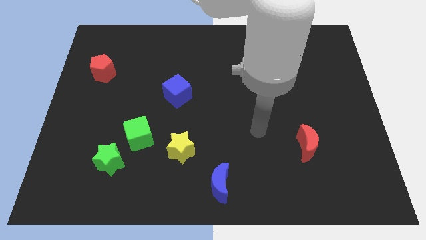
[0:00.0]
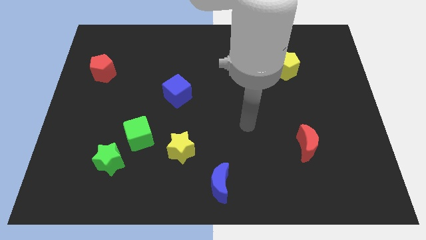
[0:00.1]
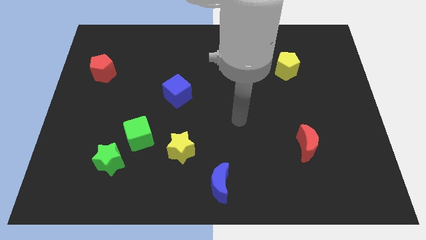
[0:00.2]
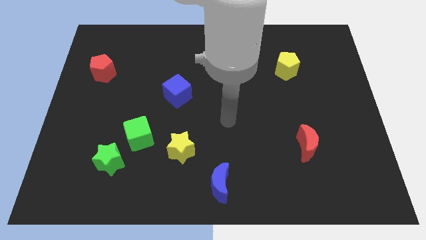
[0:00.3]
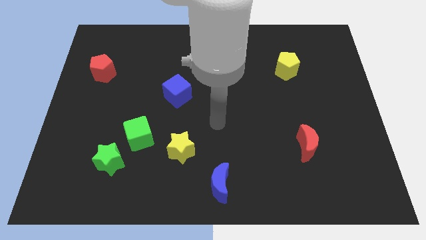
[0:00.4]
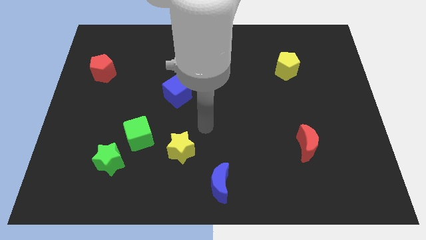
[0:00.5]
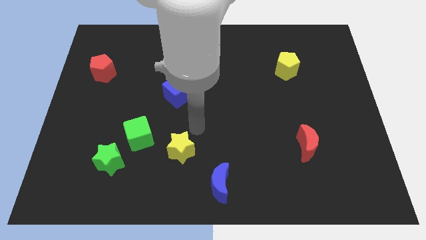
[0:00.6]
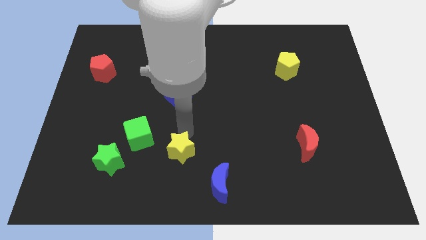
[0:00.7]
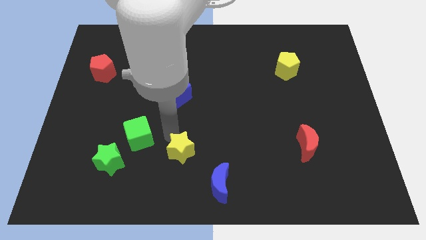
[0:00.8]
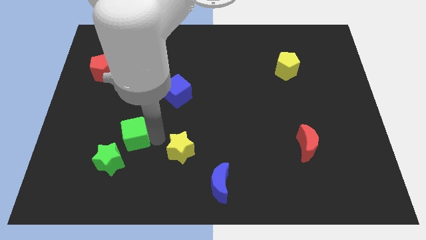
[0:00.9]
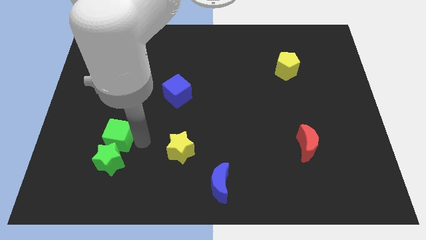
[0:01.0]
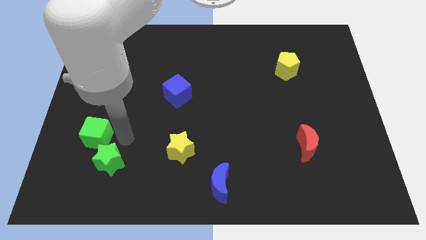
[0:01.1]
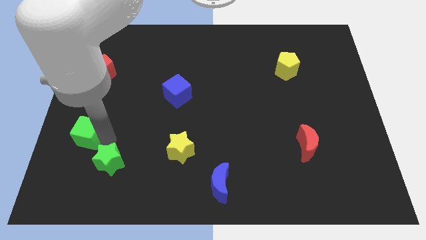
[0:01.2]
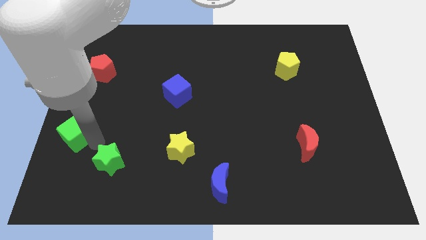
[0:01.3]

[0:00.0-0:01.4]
move the green star away from the green cube

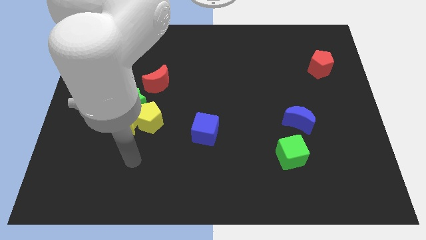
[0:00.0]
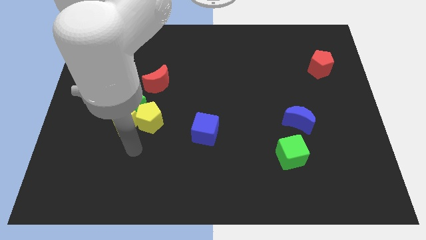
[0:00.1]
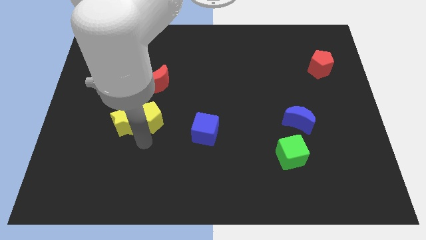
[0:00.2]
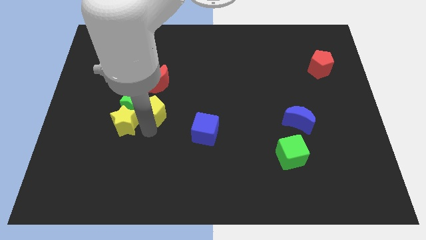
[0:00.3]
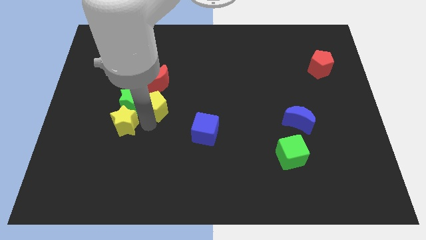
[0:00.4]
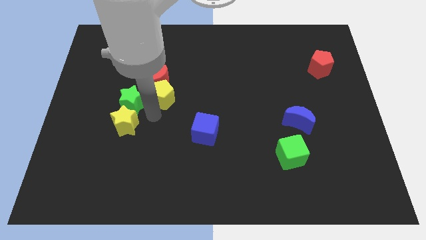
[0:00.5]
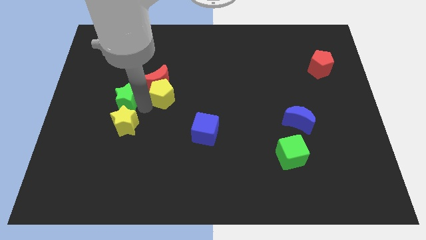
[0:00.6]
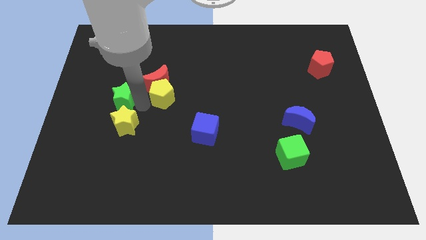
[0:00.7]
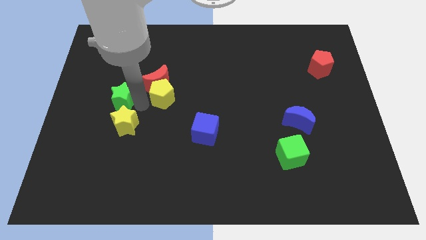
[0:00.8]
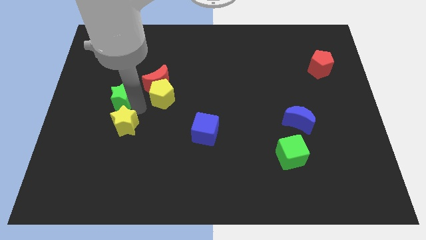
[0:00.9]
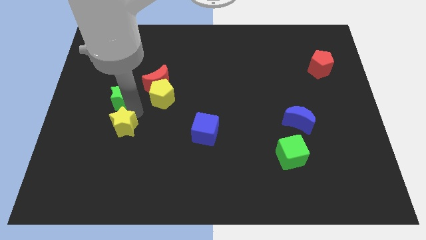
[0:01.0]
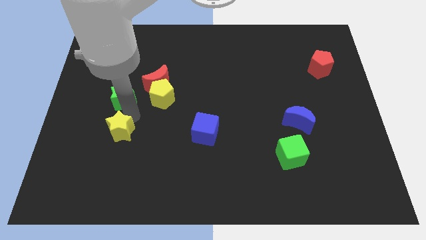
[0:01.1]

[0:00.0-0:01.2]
pull the yellow star apart from the green star and yellow pentagon

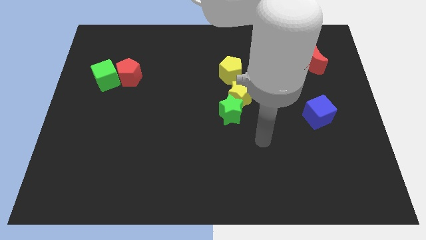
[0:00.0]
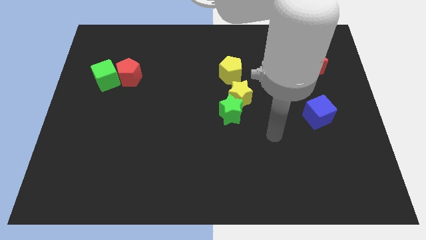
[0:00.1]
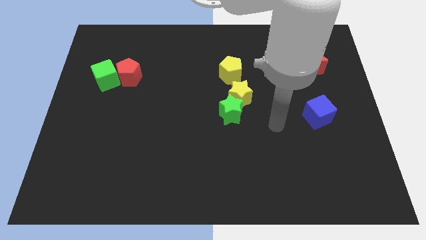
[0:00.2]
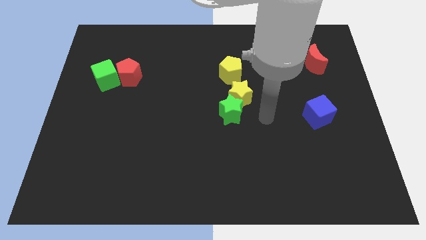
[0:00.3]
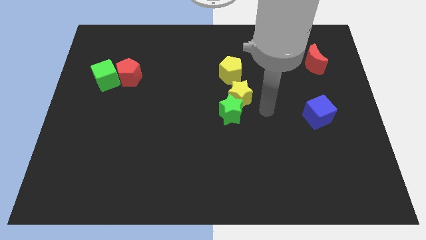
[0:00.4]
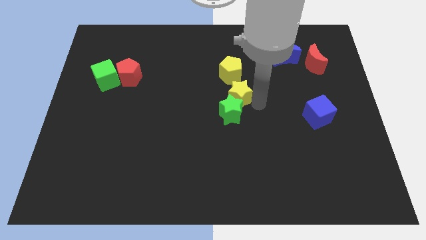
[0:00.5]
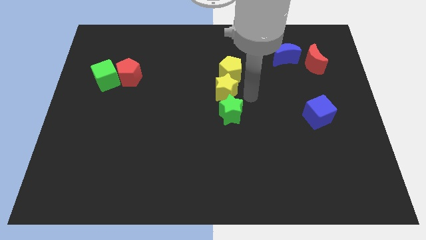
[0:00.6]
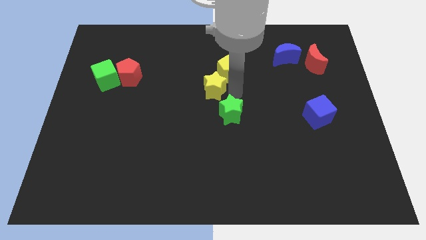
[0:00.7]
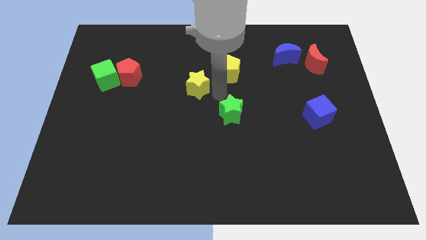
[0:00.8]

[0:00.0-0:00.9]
separate the green star from the yellow star

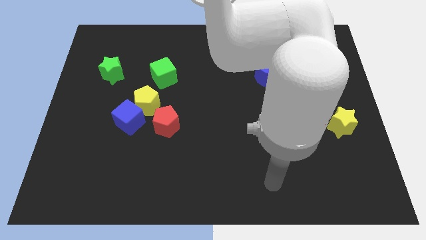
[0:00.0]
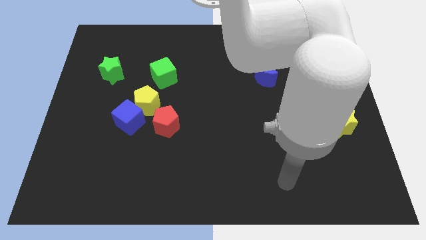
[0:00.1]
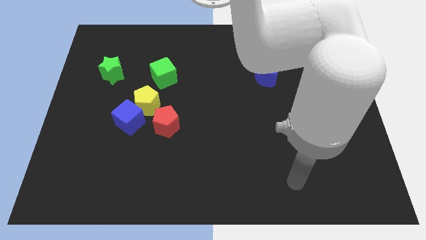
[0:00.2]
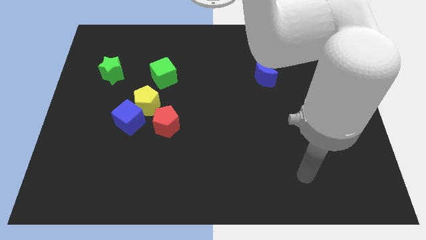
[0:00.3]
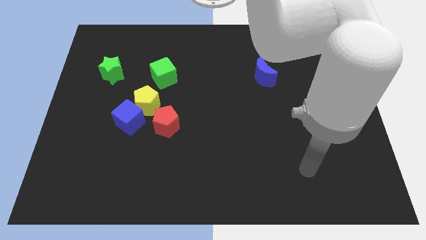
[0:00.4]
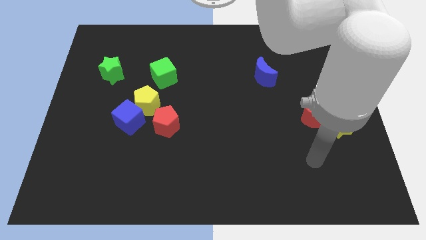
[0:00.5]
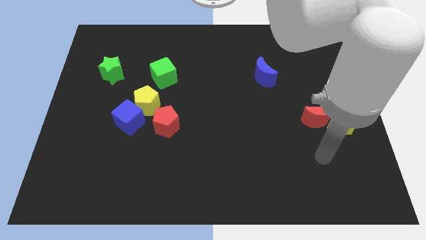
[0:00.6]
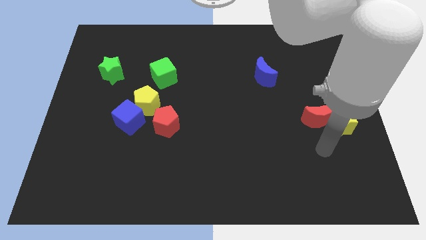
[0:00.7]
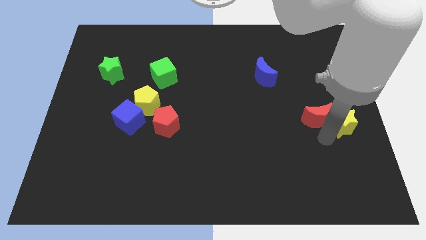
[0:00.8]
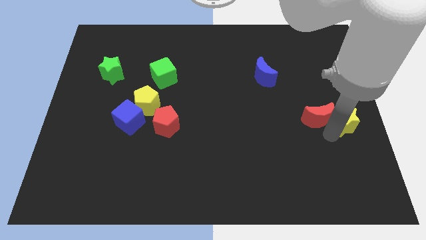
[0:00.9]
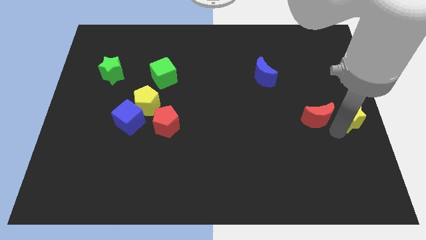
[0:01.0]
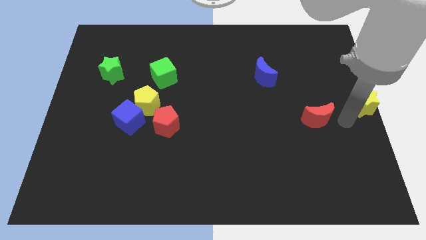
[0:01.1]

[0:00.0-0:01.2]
move the red moon away from the yellow star

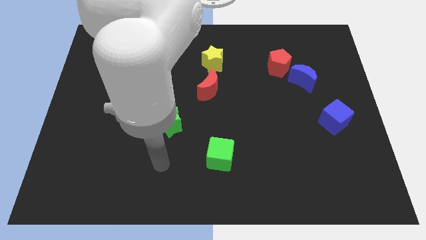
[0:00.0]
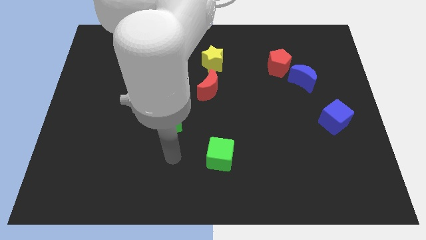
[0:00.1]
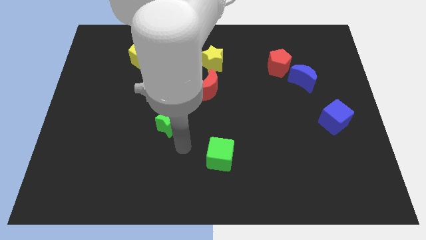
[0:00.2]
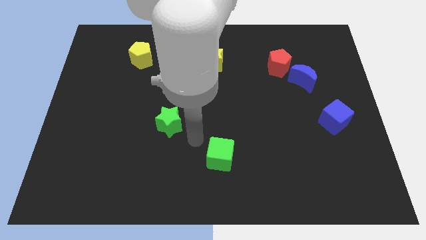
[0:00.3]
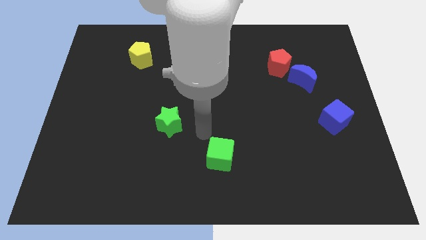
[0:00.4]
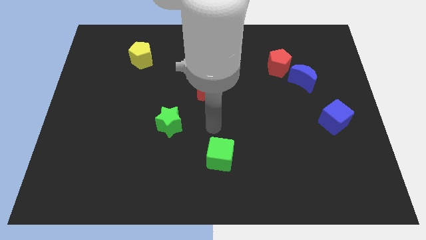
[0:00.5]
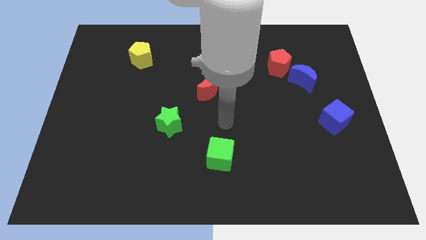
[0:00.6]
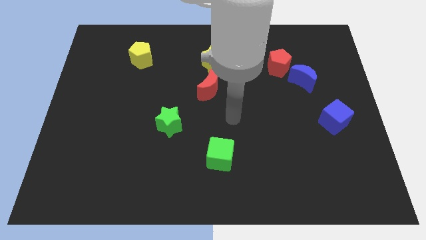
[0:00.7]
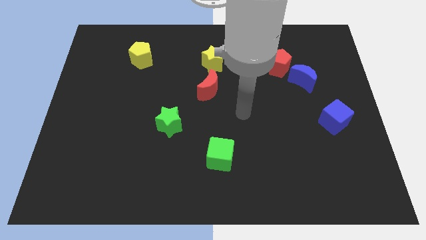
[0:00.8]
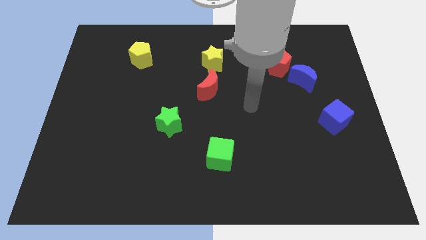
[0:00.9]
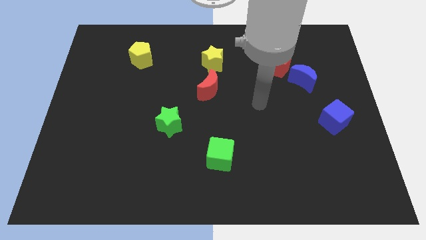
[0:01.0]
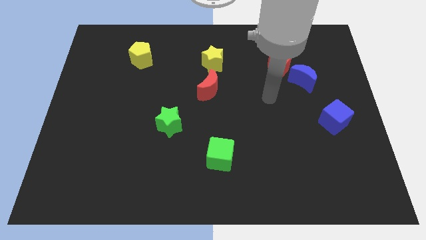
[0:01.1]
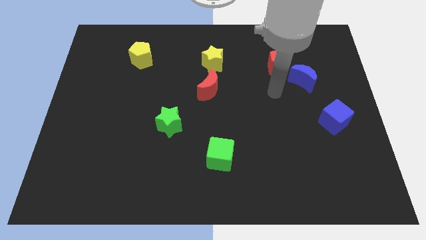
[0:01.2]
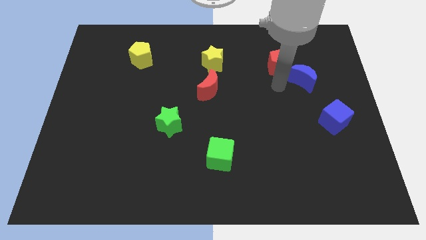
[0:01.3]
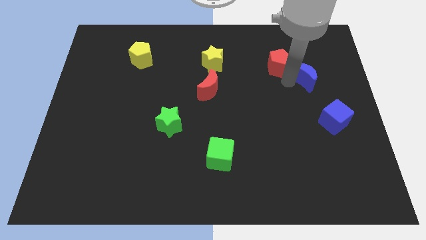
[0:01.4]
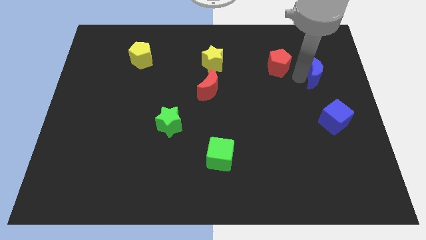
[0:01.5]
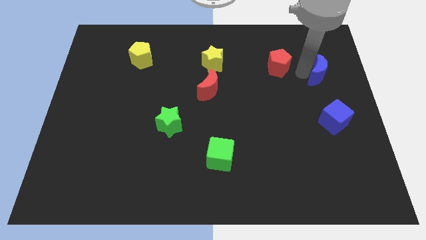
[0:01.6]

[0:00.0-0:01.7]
separate the red pentagon from the blue moon

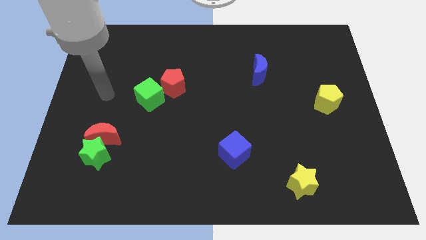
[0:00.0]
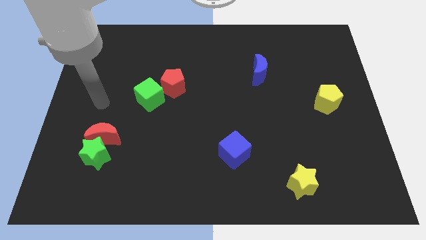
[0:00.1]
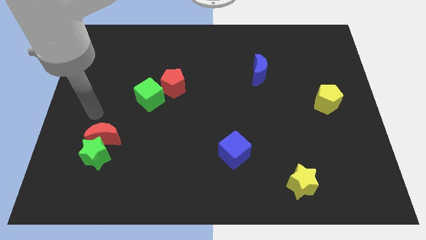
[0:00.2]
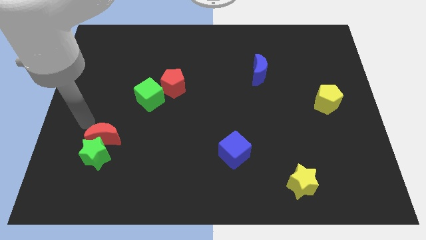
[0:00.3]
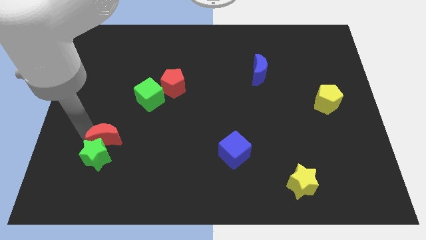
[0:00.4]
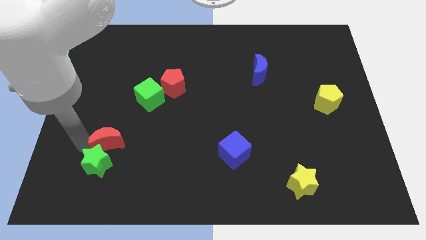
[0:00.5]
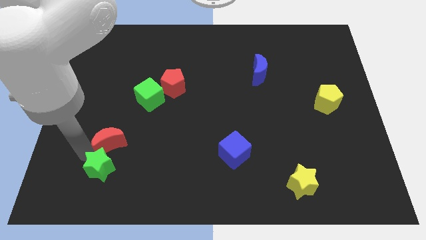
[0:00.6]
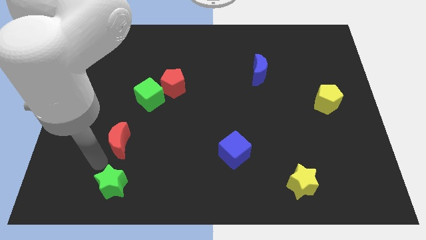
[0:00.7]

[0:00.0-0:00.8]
separate the red moon from the green star

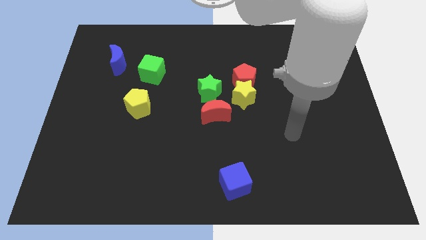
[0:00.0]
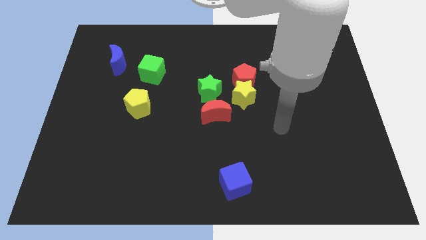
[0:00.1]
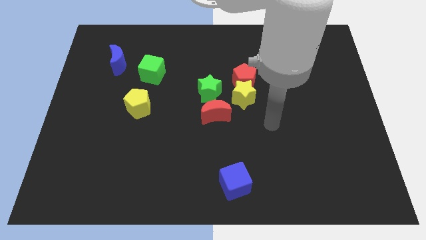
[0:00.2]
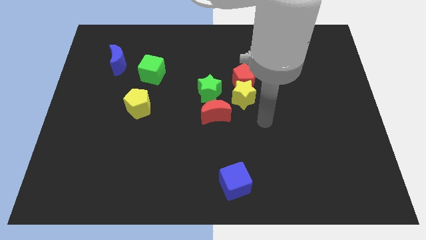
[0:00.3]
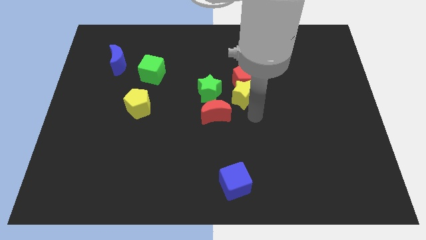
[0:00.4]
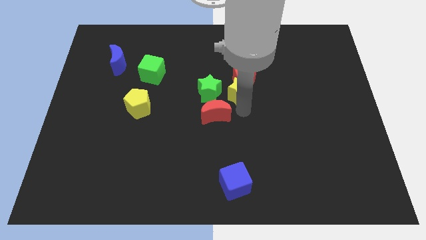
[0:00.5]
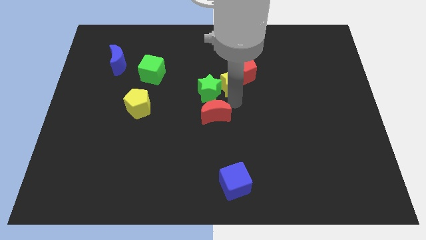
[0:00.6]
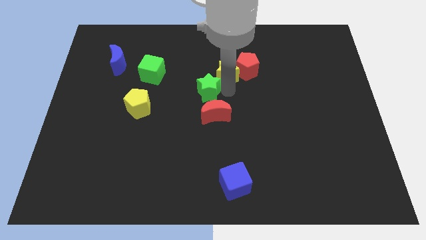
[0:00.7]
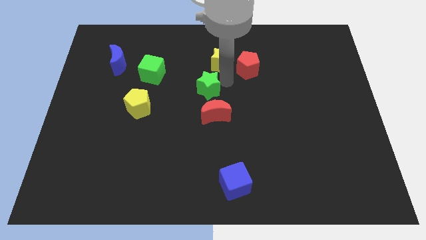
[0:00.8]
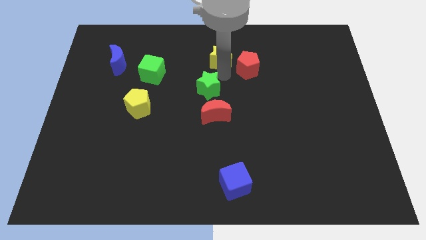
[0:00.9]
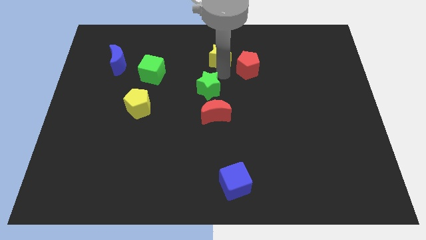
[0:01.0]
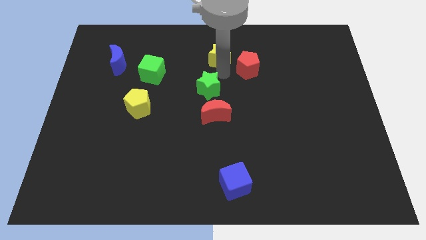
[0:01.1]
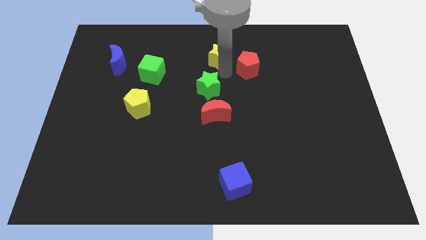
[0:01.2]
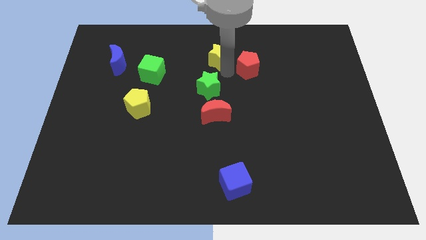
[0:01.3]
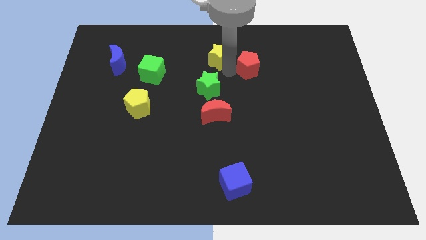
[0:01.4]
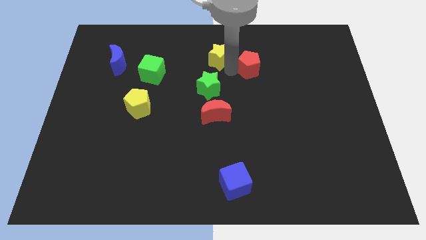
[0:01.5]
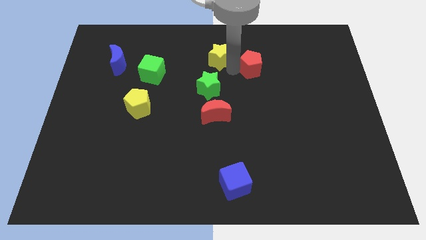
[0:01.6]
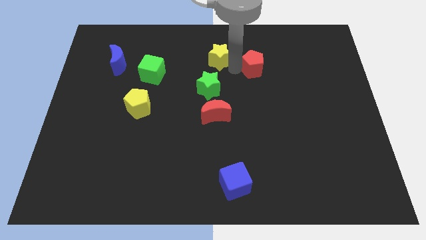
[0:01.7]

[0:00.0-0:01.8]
move the red pentagon away from the yellow star and green star

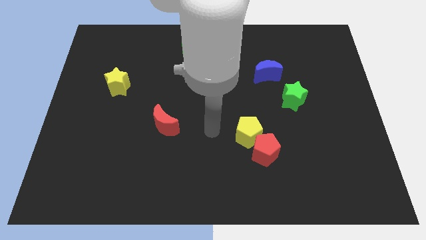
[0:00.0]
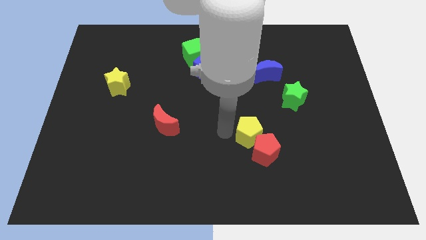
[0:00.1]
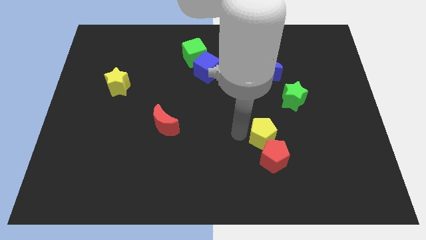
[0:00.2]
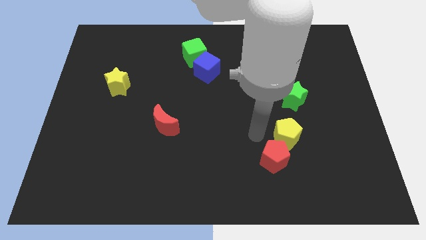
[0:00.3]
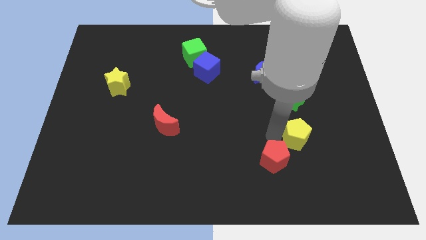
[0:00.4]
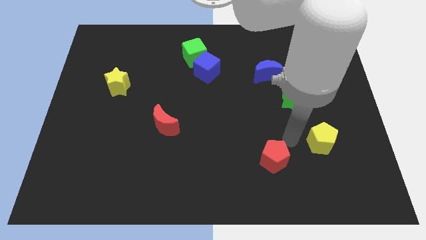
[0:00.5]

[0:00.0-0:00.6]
pull the red pentagon apart from the yellow pentagon
